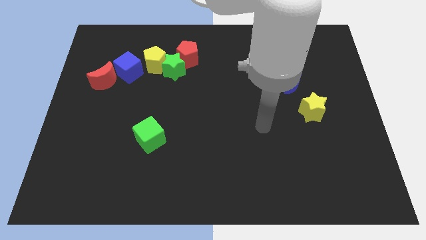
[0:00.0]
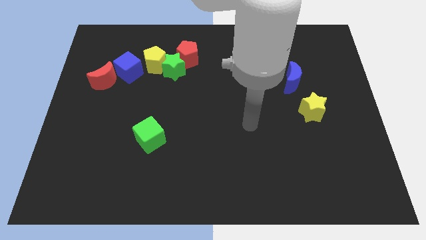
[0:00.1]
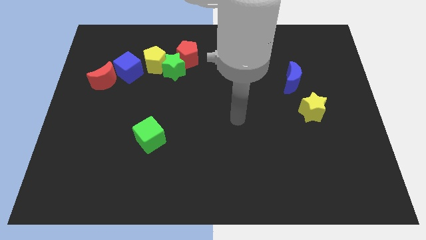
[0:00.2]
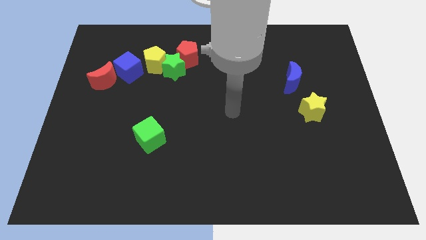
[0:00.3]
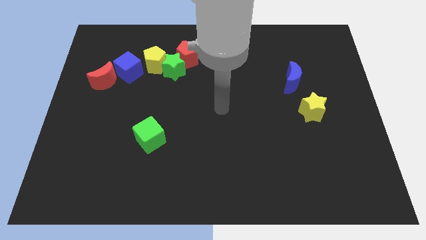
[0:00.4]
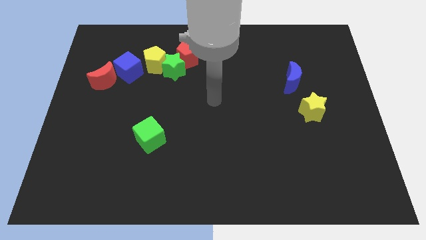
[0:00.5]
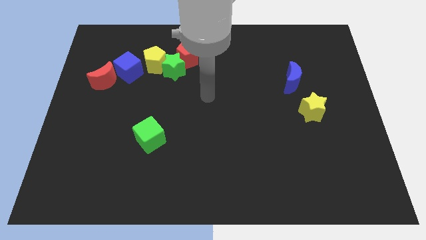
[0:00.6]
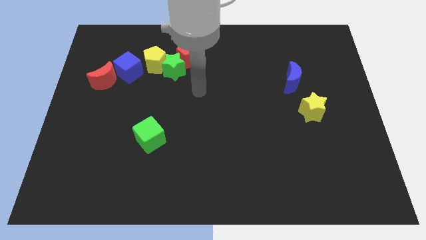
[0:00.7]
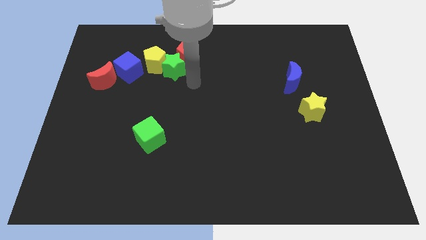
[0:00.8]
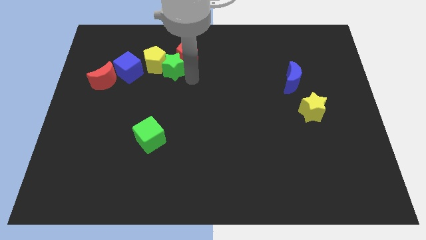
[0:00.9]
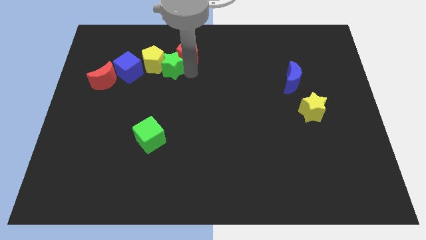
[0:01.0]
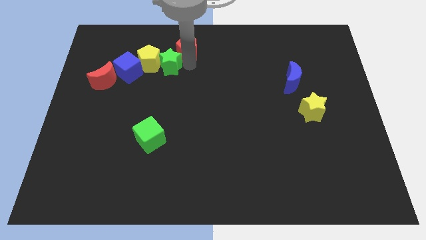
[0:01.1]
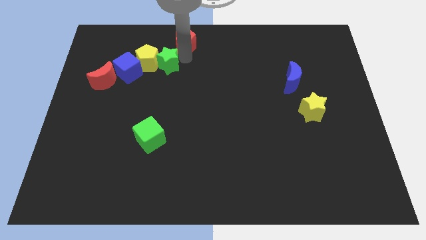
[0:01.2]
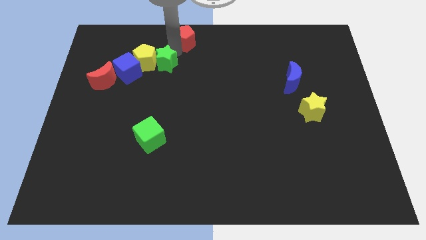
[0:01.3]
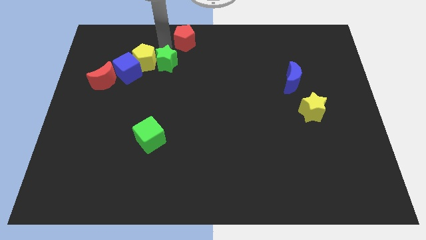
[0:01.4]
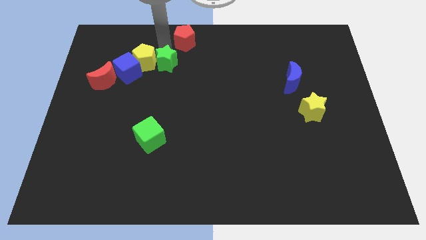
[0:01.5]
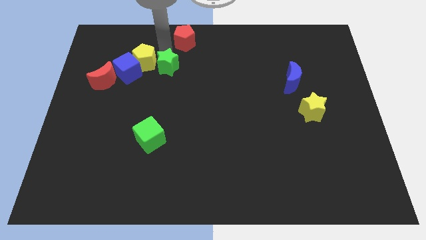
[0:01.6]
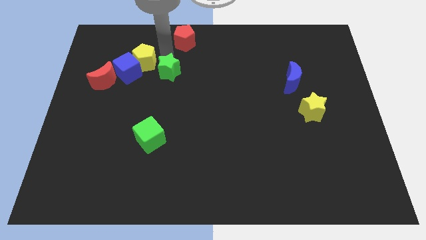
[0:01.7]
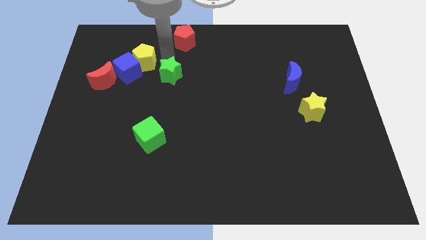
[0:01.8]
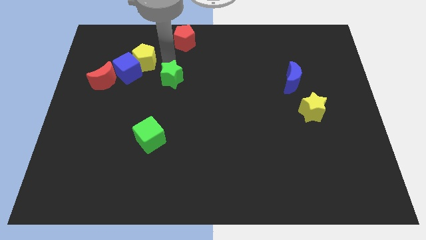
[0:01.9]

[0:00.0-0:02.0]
separate the green star from the yellow pentagon and red pentagon

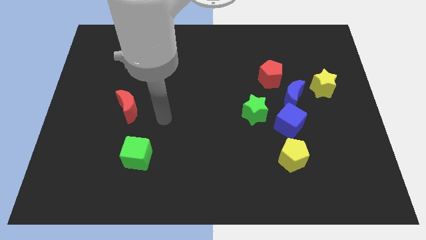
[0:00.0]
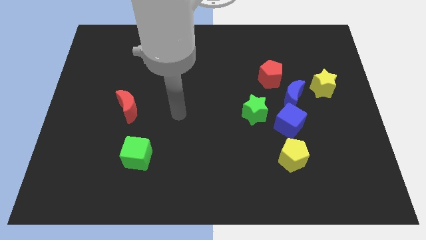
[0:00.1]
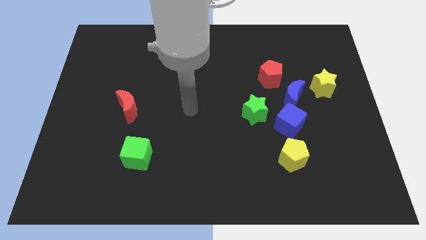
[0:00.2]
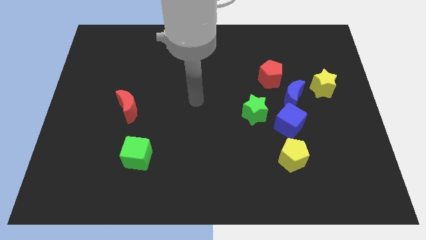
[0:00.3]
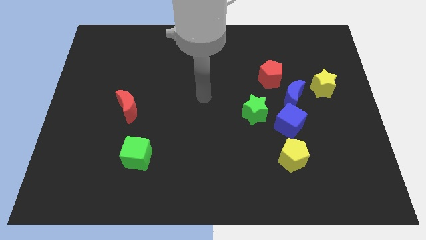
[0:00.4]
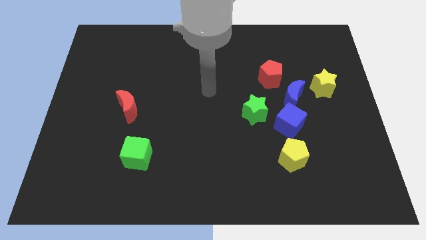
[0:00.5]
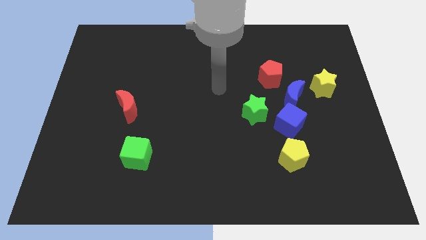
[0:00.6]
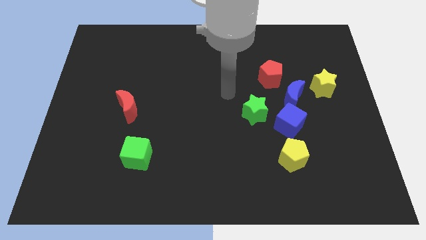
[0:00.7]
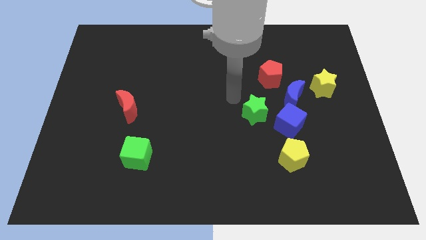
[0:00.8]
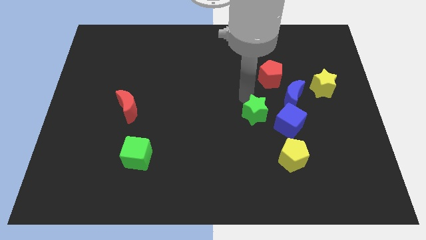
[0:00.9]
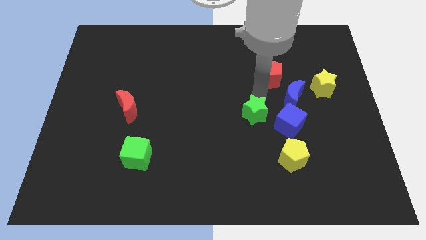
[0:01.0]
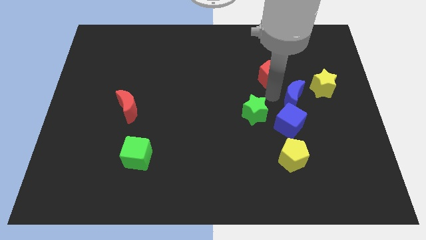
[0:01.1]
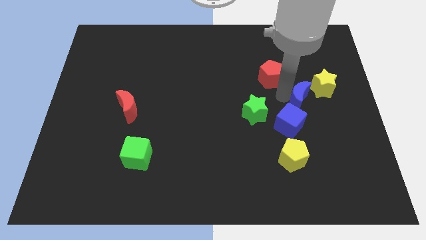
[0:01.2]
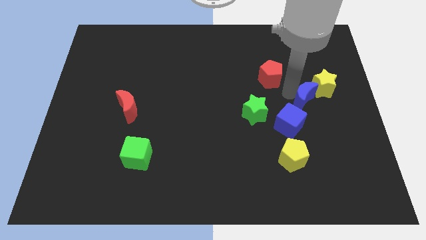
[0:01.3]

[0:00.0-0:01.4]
move the red pentagon away from the blue moon

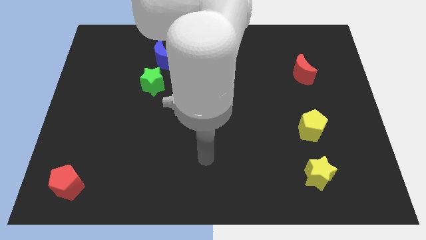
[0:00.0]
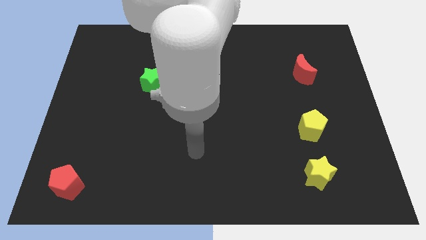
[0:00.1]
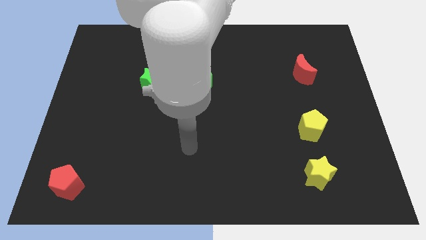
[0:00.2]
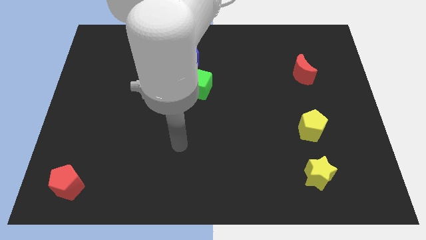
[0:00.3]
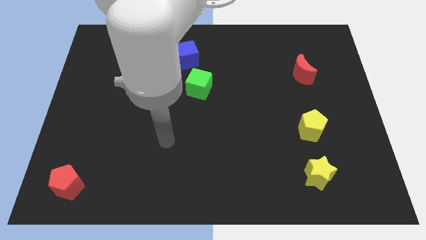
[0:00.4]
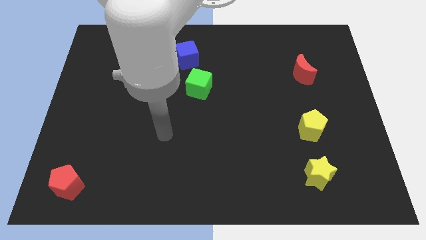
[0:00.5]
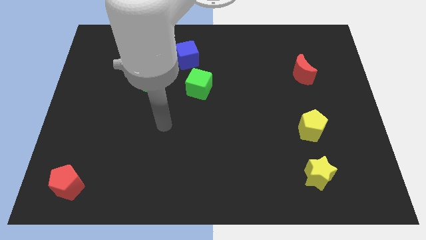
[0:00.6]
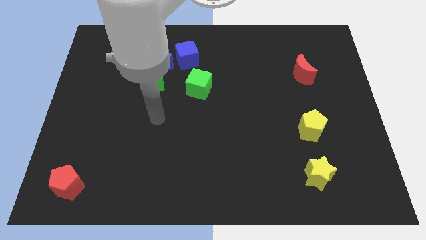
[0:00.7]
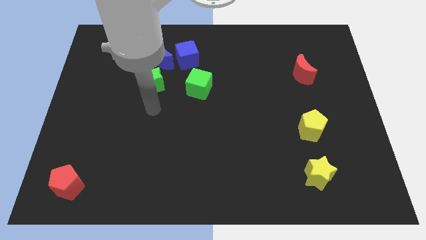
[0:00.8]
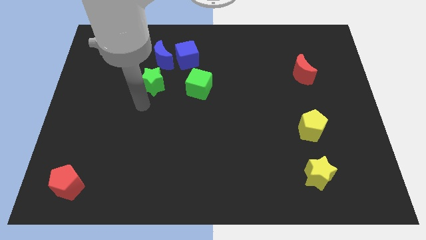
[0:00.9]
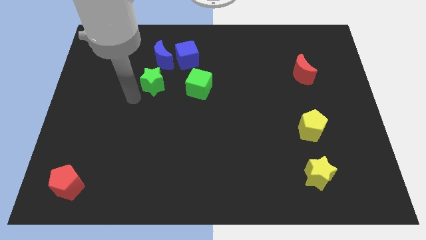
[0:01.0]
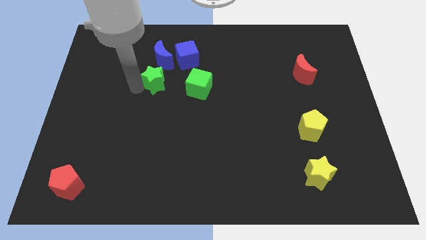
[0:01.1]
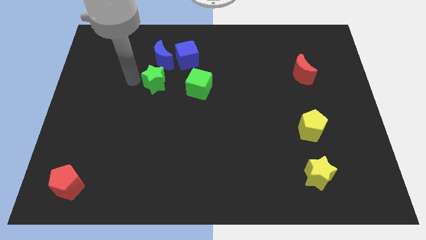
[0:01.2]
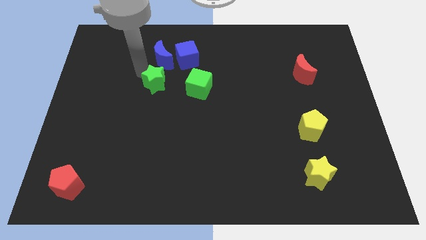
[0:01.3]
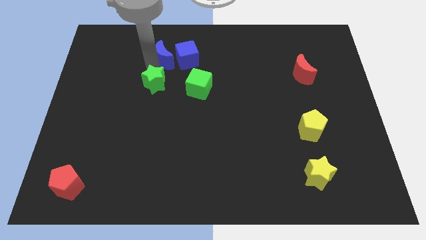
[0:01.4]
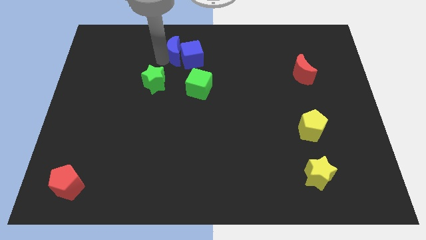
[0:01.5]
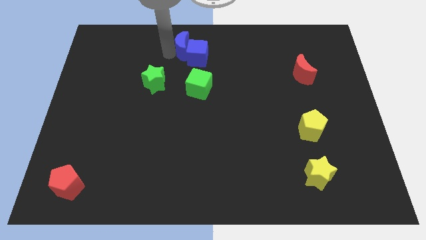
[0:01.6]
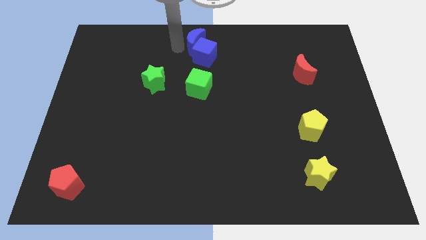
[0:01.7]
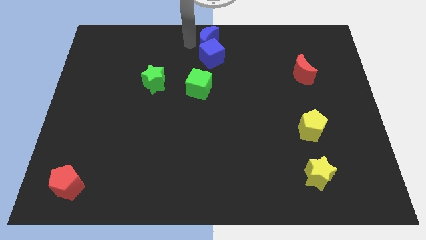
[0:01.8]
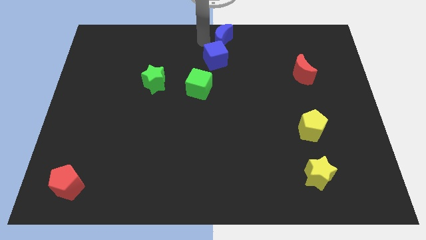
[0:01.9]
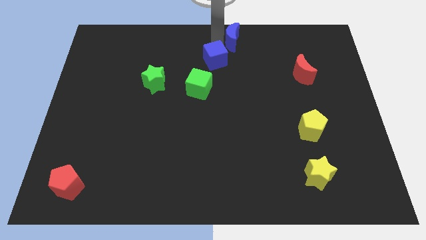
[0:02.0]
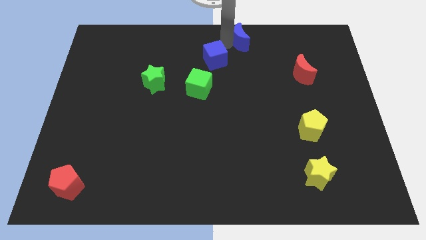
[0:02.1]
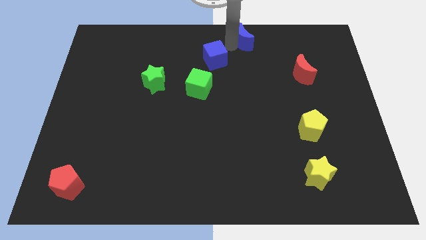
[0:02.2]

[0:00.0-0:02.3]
move the blue cube away from the blue moon

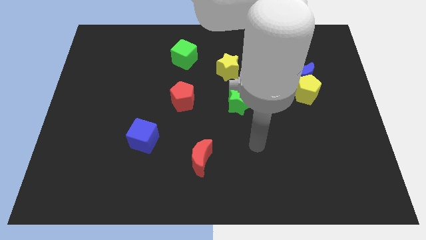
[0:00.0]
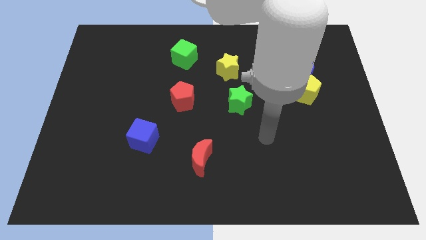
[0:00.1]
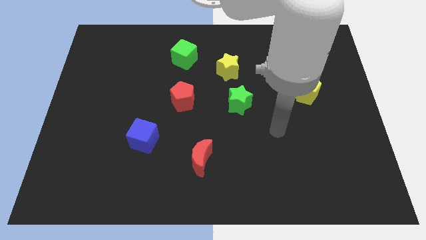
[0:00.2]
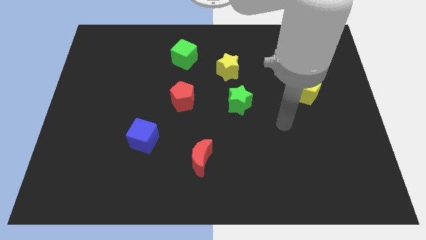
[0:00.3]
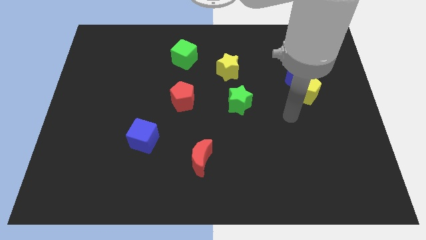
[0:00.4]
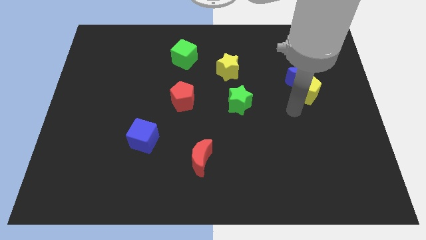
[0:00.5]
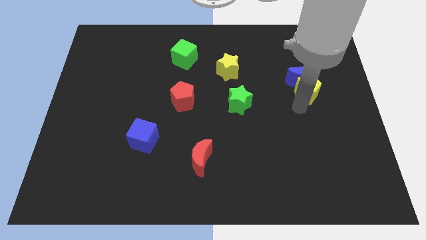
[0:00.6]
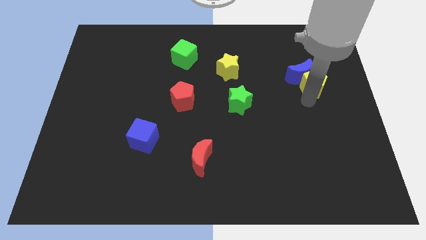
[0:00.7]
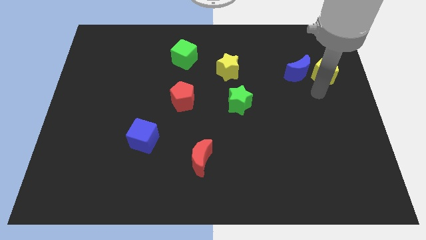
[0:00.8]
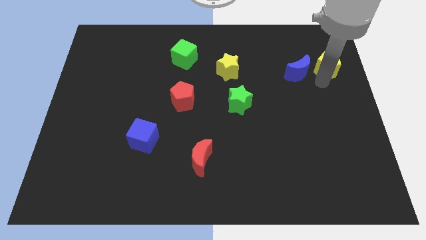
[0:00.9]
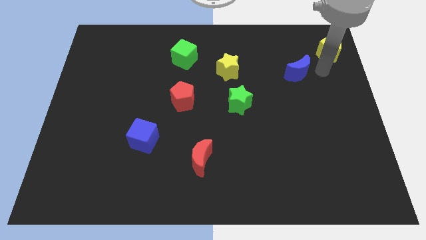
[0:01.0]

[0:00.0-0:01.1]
pull the blue moon apart from the yellow pentagon

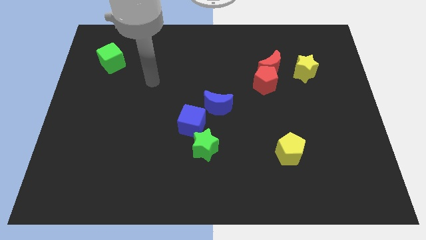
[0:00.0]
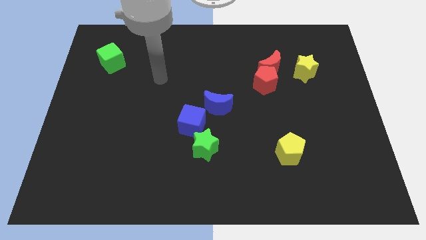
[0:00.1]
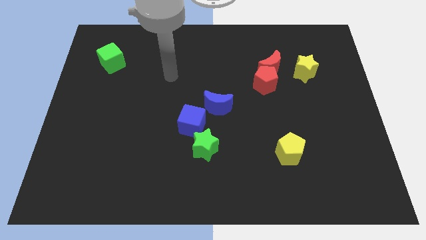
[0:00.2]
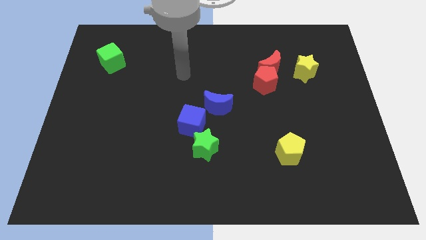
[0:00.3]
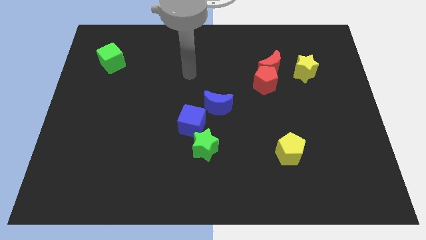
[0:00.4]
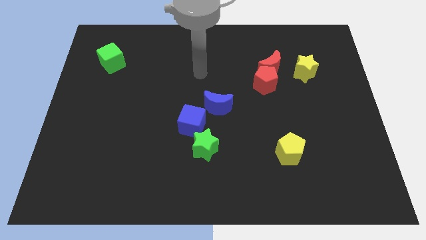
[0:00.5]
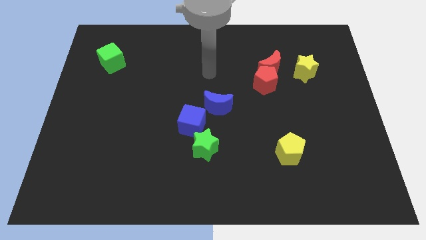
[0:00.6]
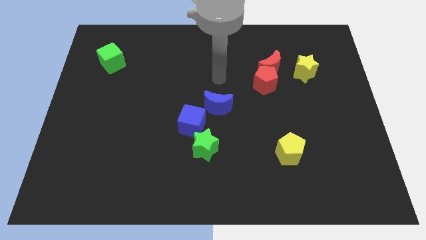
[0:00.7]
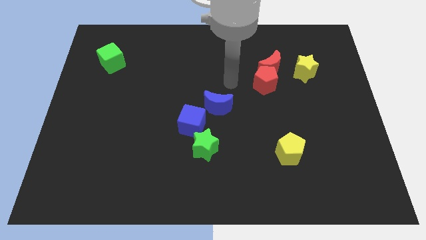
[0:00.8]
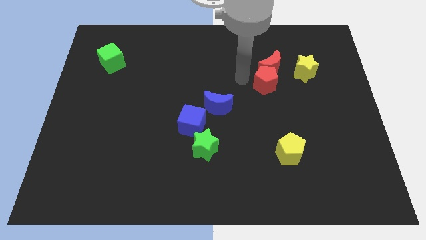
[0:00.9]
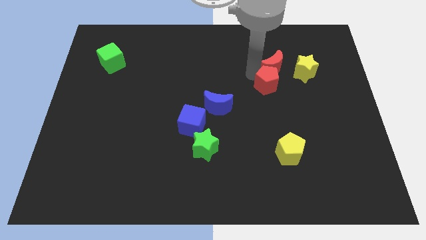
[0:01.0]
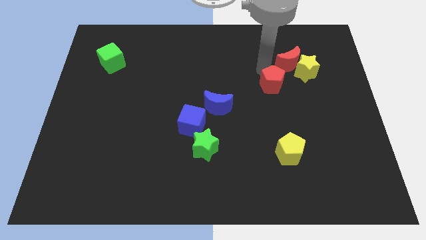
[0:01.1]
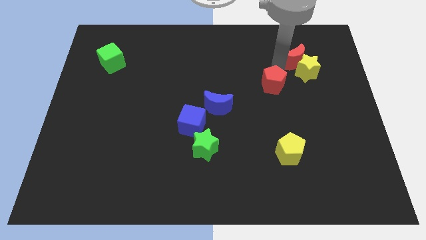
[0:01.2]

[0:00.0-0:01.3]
separate the red pentagon from the red moon

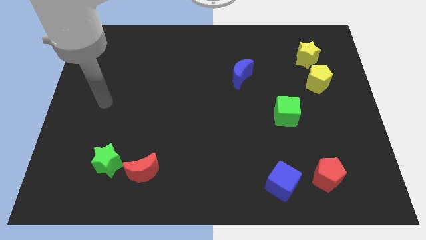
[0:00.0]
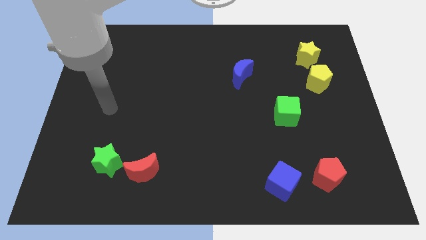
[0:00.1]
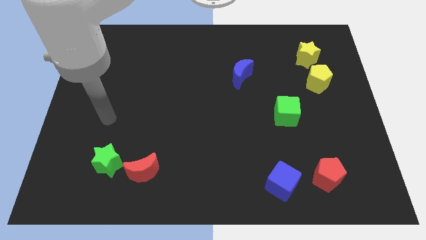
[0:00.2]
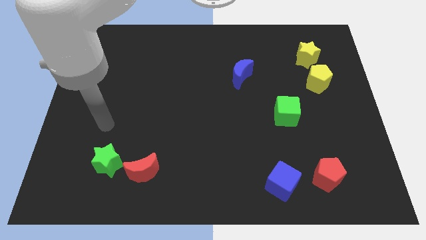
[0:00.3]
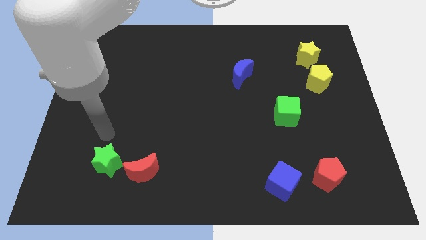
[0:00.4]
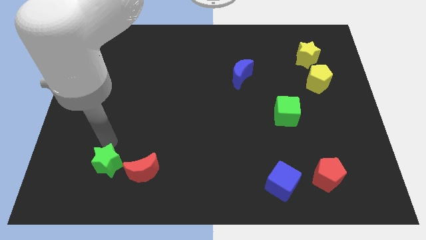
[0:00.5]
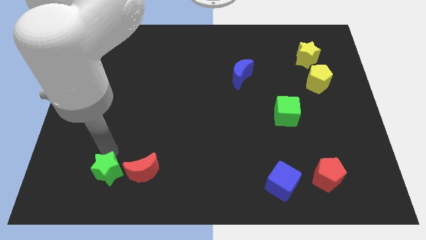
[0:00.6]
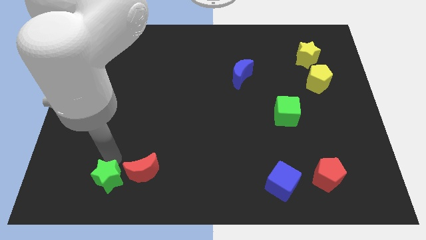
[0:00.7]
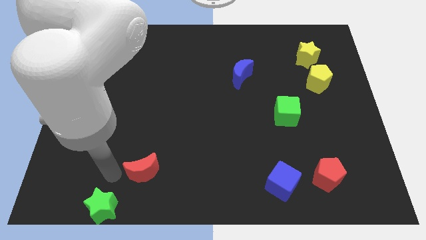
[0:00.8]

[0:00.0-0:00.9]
separate the red moon from the green star

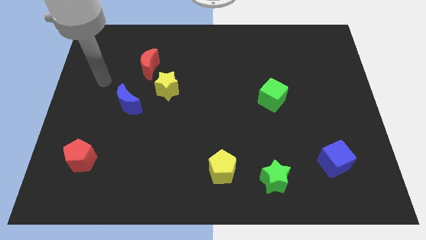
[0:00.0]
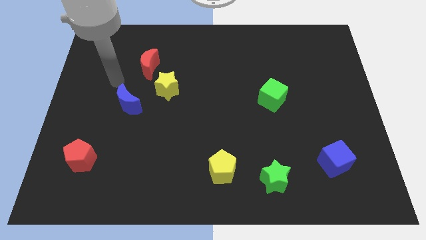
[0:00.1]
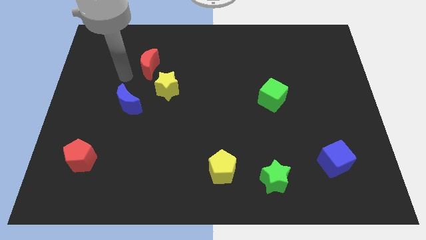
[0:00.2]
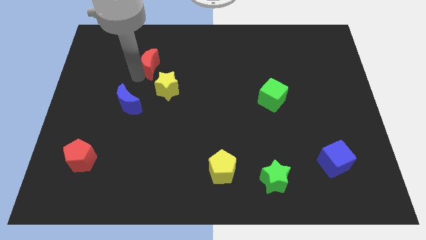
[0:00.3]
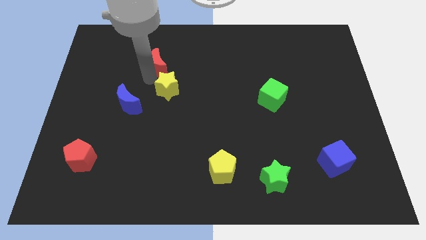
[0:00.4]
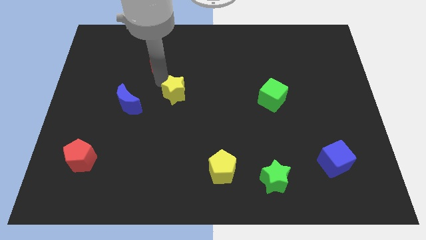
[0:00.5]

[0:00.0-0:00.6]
separate the red moon from the yellow star
